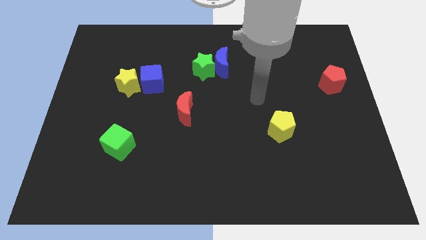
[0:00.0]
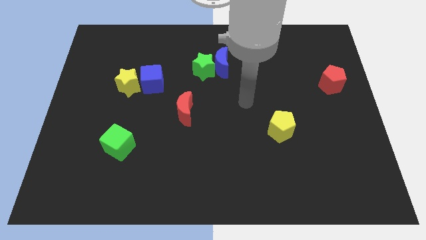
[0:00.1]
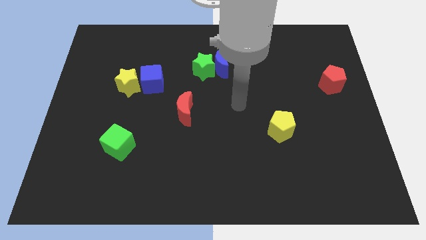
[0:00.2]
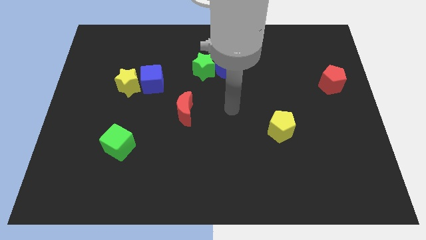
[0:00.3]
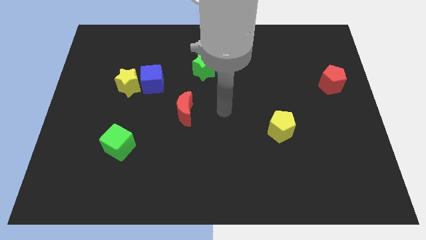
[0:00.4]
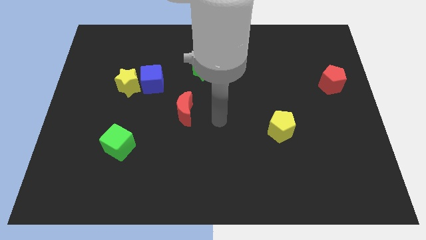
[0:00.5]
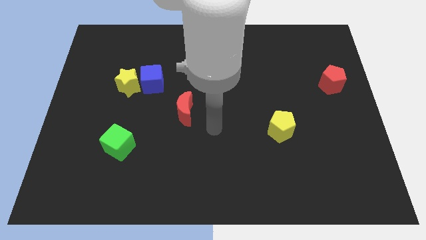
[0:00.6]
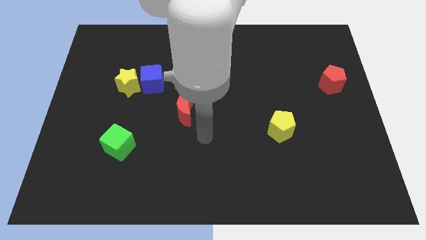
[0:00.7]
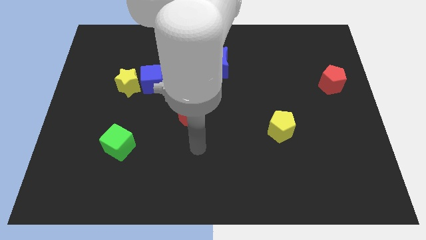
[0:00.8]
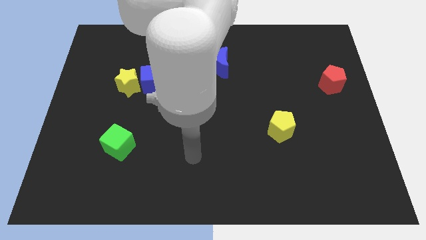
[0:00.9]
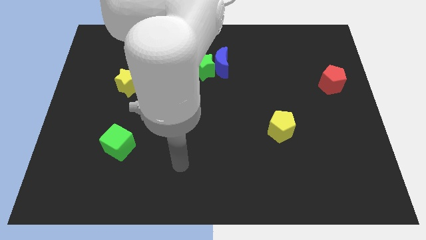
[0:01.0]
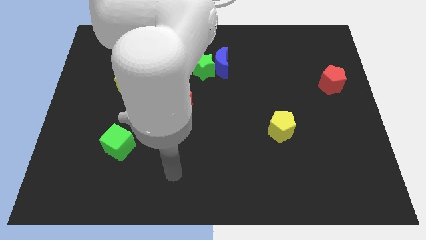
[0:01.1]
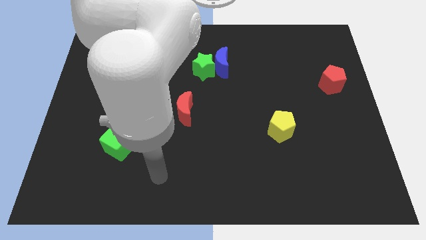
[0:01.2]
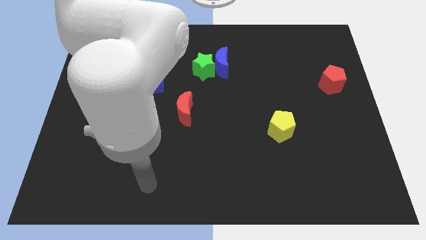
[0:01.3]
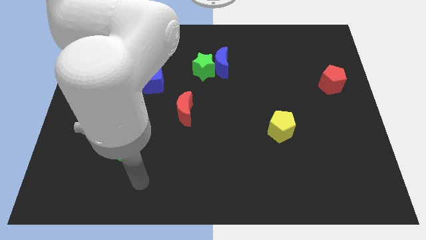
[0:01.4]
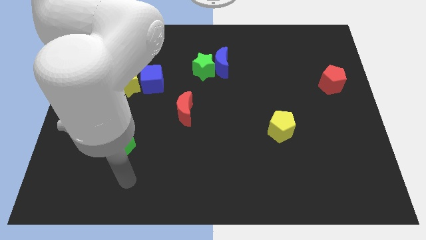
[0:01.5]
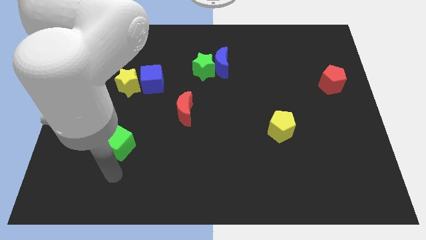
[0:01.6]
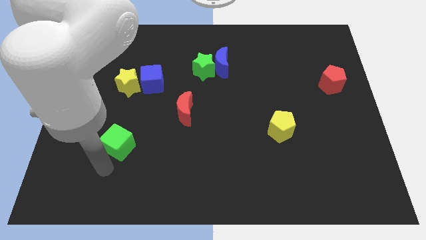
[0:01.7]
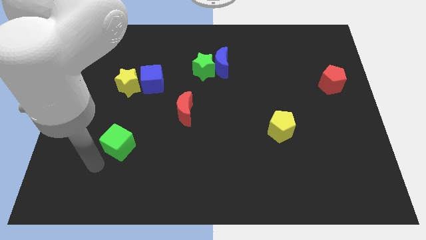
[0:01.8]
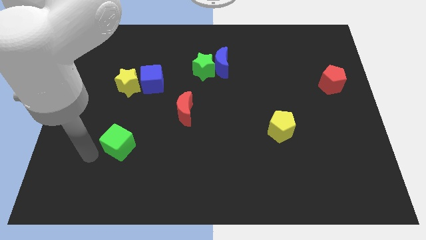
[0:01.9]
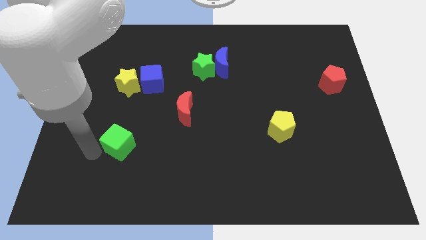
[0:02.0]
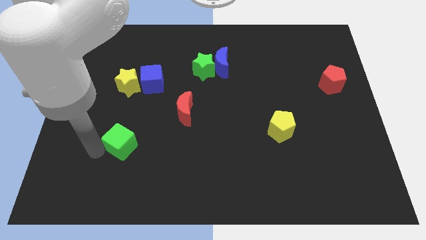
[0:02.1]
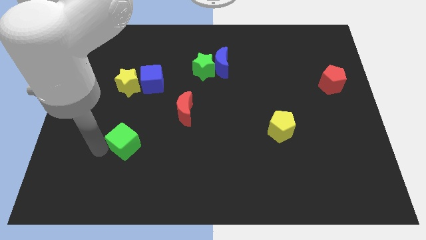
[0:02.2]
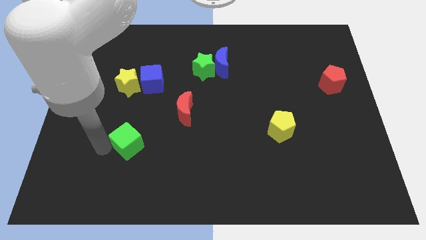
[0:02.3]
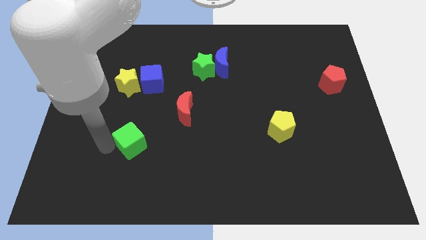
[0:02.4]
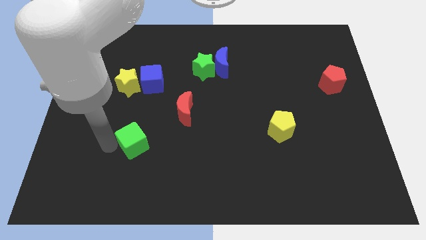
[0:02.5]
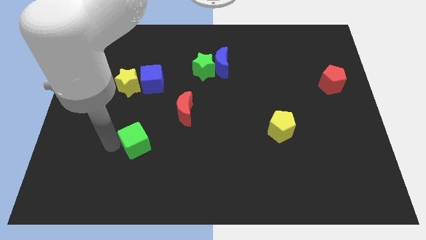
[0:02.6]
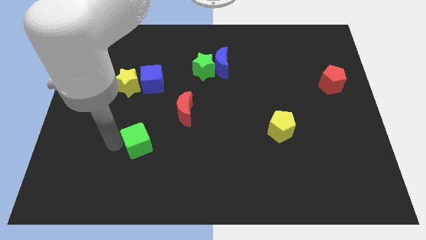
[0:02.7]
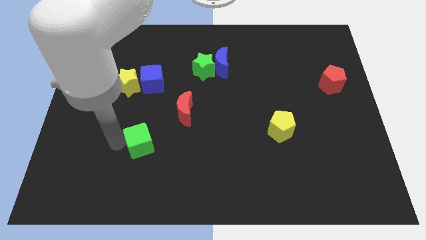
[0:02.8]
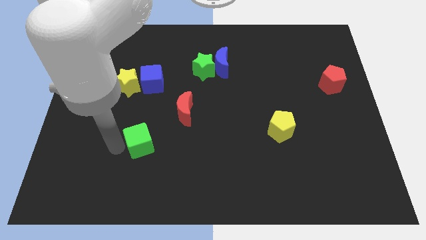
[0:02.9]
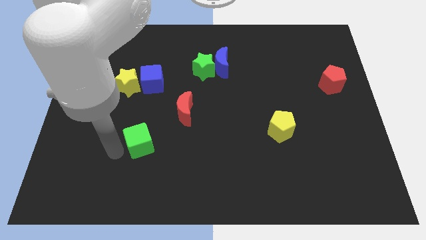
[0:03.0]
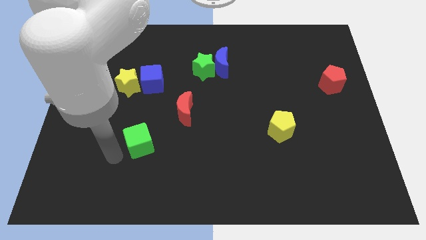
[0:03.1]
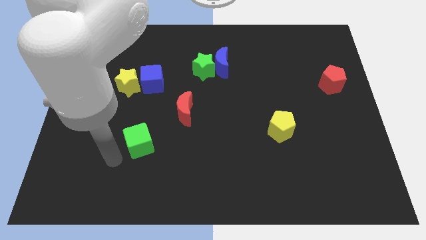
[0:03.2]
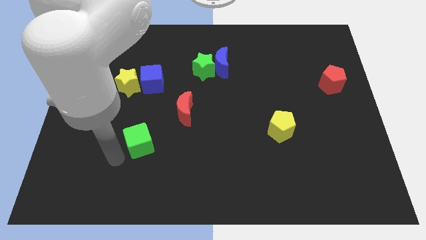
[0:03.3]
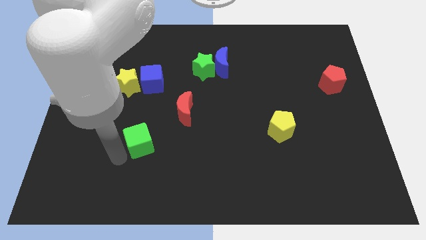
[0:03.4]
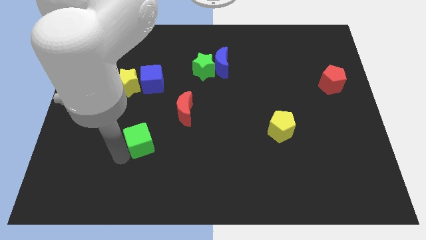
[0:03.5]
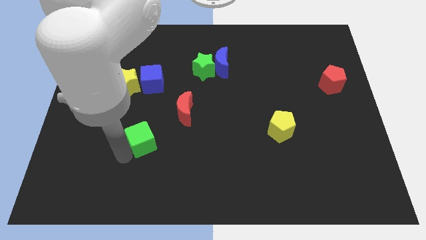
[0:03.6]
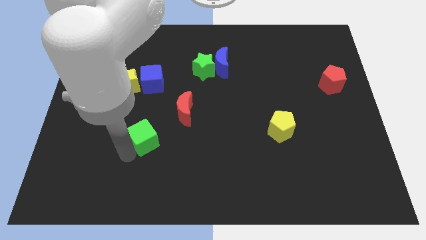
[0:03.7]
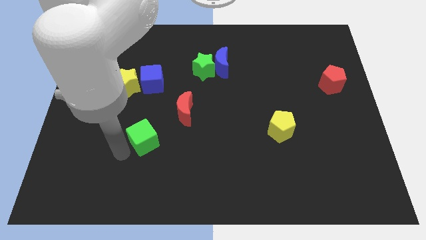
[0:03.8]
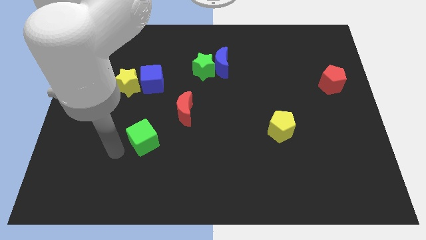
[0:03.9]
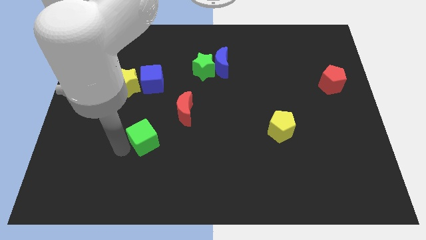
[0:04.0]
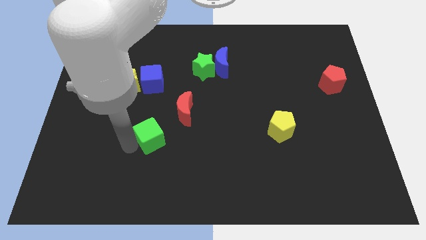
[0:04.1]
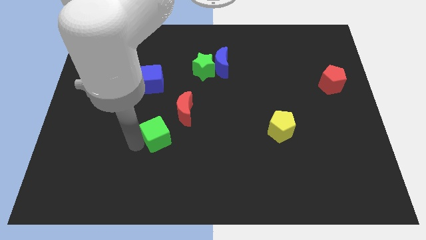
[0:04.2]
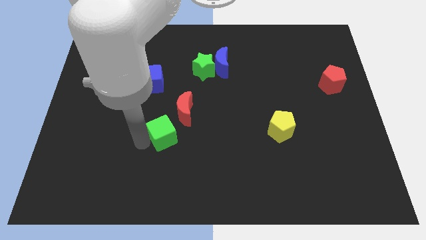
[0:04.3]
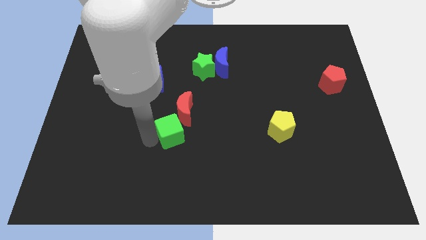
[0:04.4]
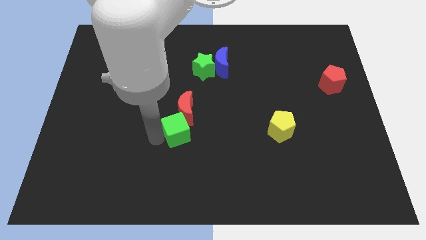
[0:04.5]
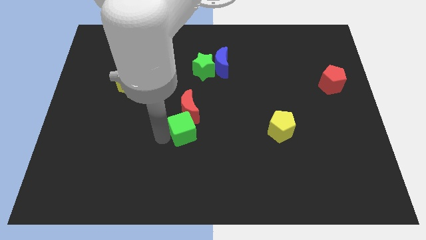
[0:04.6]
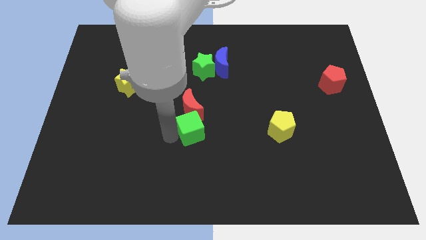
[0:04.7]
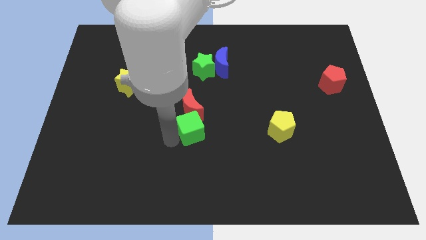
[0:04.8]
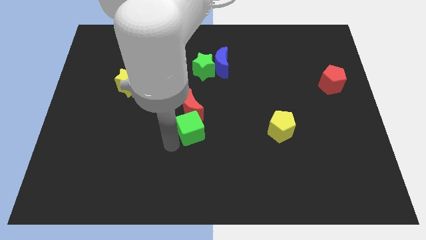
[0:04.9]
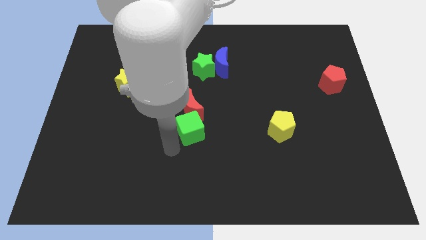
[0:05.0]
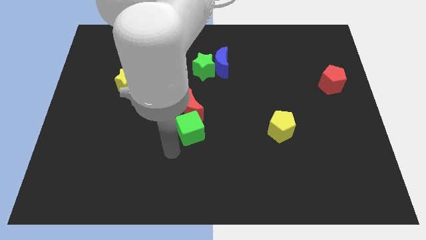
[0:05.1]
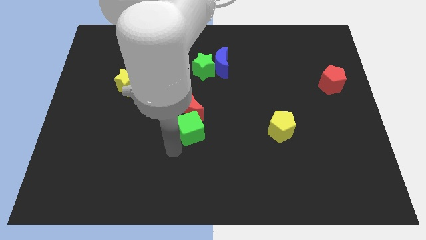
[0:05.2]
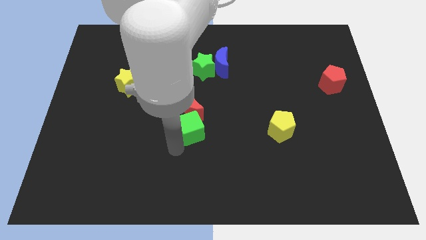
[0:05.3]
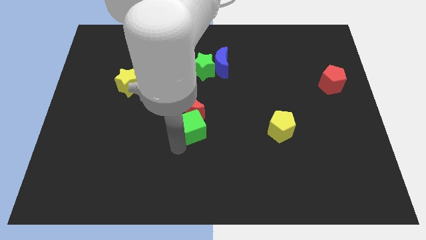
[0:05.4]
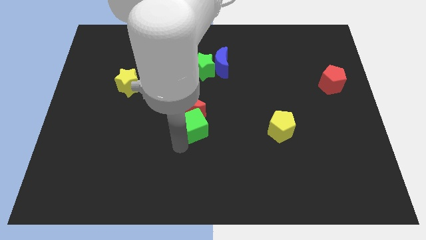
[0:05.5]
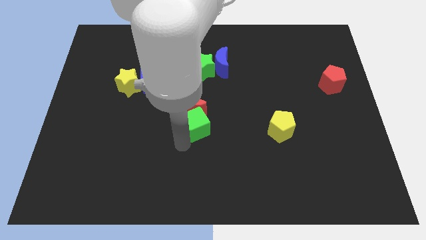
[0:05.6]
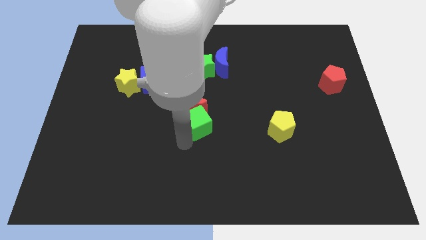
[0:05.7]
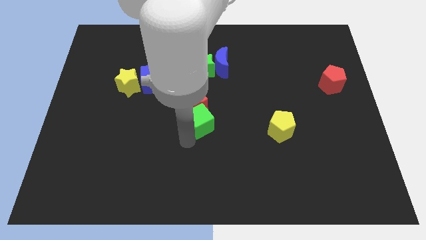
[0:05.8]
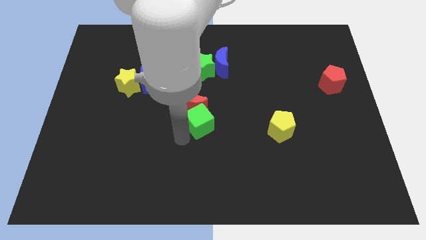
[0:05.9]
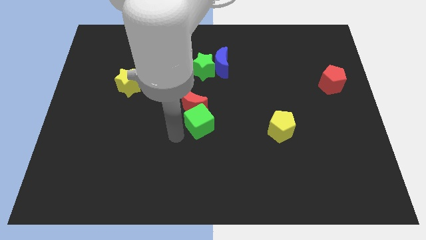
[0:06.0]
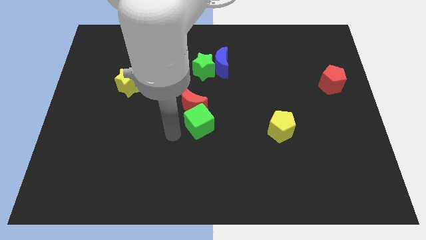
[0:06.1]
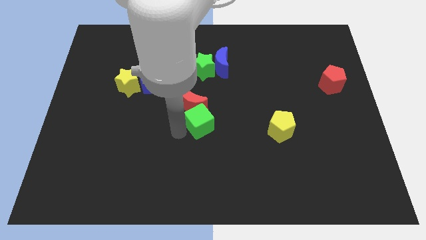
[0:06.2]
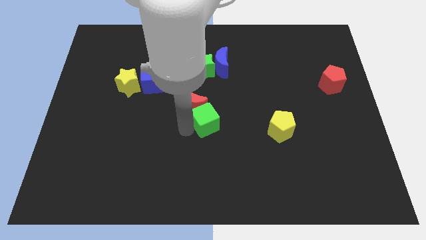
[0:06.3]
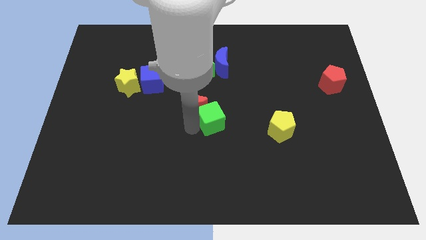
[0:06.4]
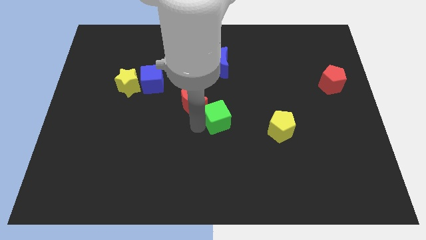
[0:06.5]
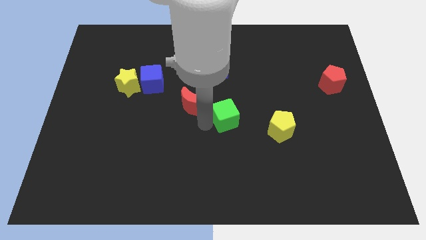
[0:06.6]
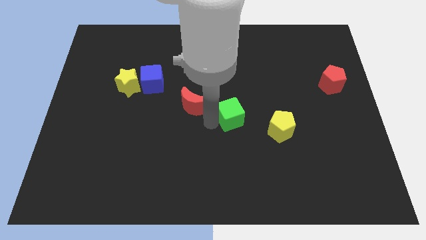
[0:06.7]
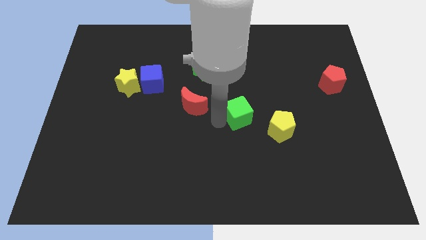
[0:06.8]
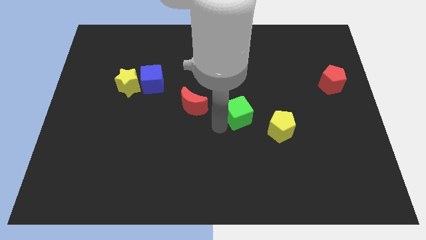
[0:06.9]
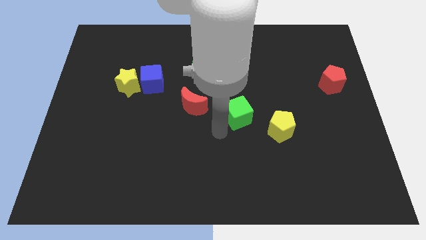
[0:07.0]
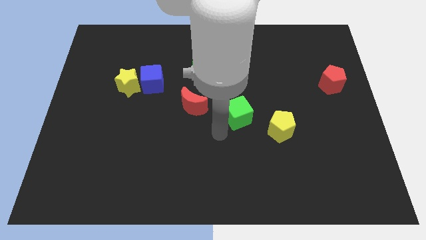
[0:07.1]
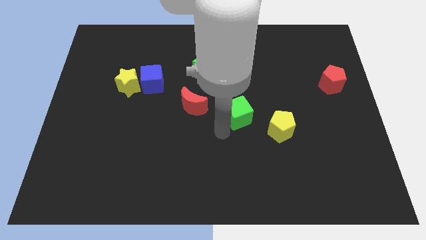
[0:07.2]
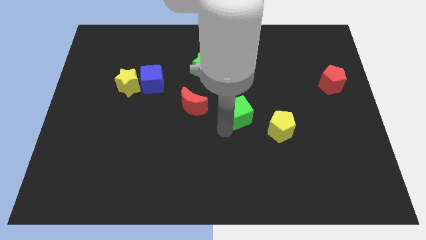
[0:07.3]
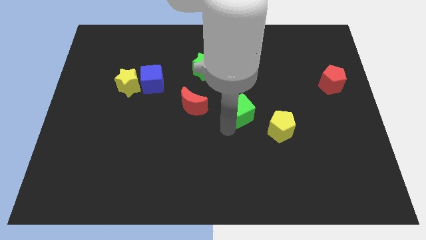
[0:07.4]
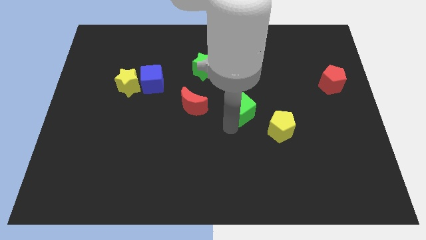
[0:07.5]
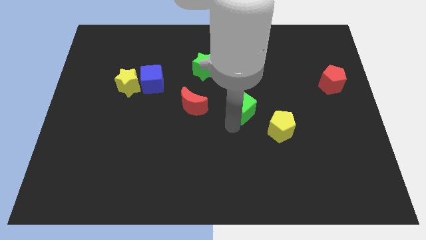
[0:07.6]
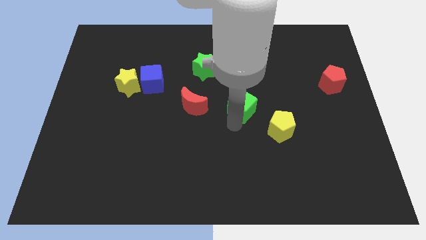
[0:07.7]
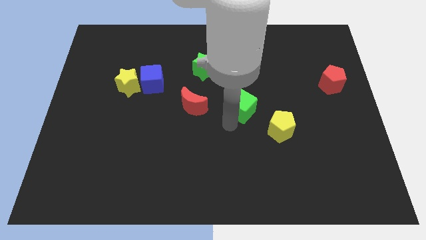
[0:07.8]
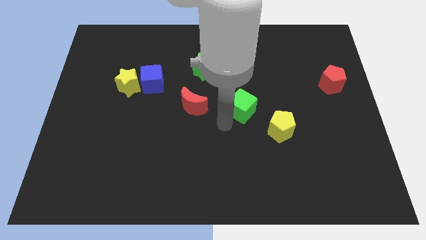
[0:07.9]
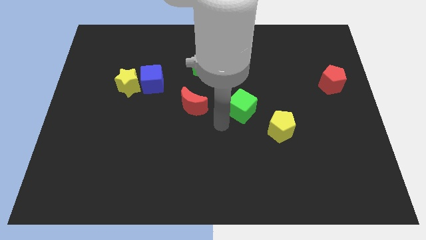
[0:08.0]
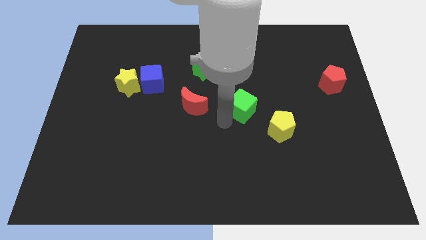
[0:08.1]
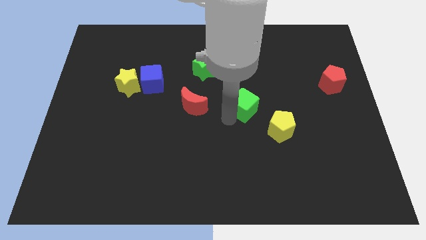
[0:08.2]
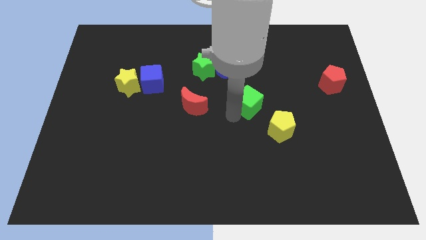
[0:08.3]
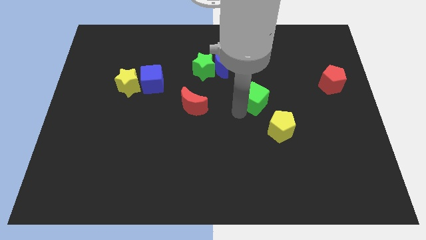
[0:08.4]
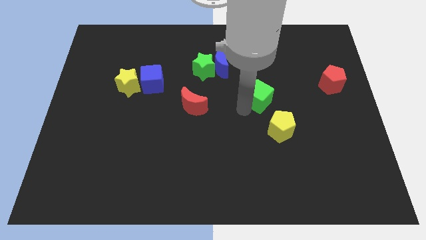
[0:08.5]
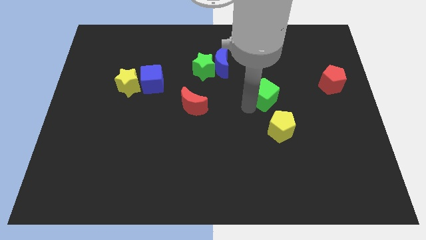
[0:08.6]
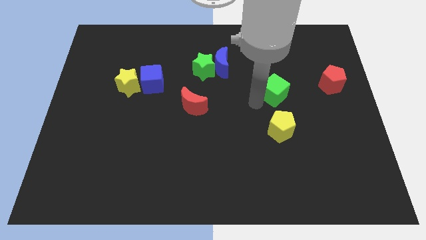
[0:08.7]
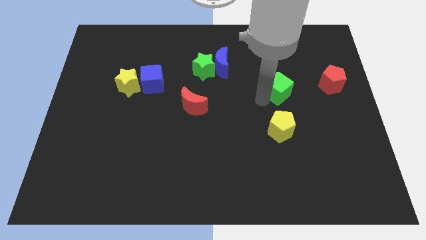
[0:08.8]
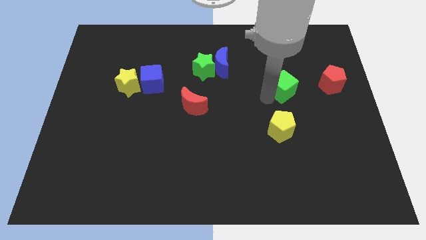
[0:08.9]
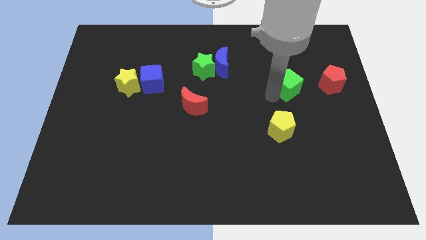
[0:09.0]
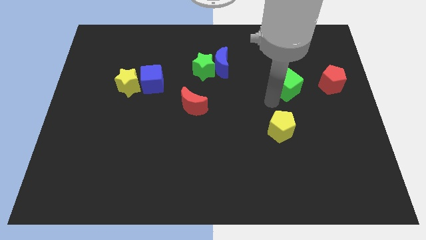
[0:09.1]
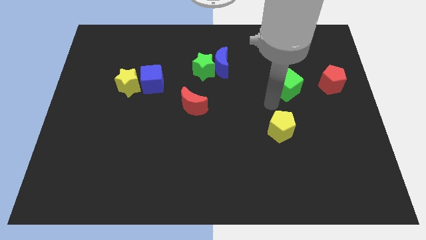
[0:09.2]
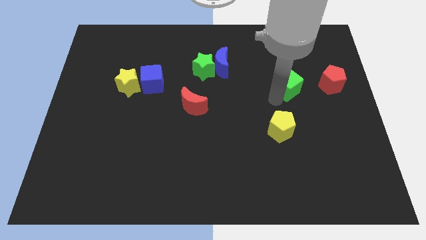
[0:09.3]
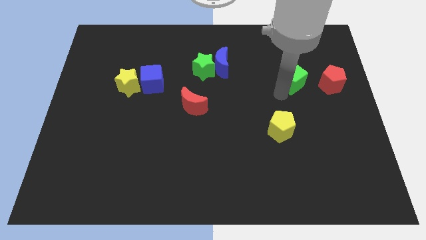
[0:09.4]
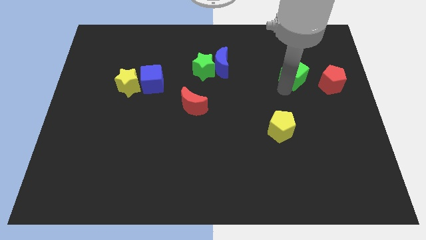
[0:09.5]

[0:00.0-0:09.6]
slide the green cube to the top left side of the red pentagon
